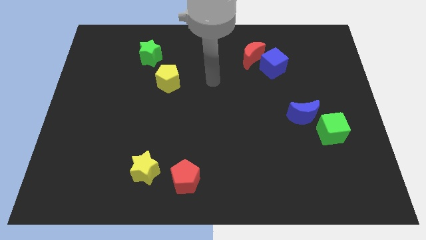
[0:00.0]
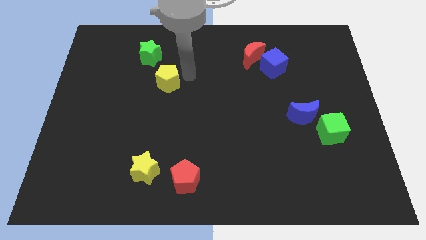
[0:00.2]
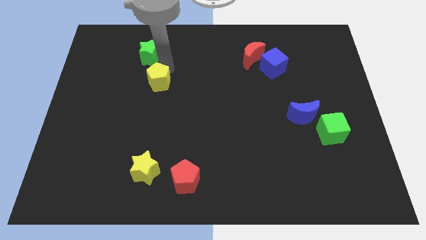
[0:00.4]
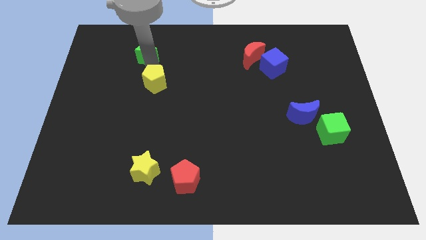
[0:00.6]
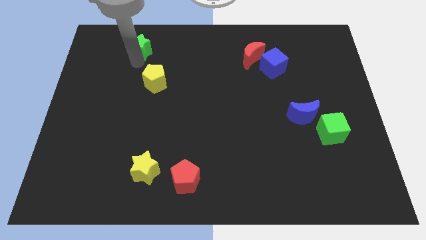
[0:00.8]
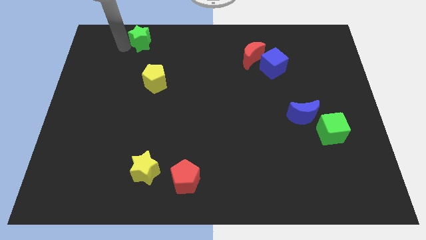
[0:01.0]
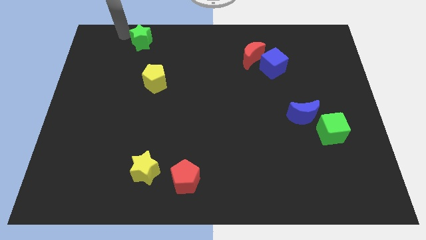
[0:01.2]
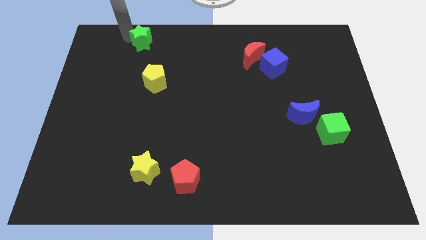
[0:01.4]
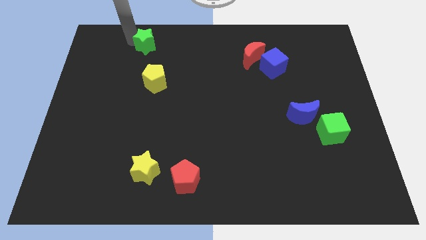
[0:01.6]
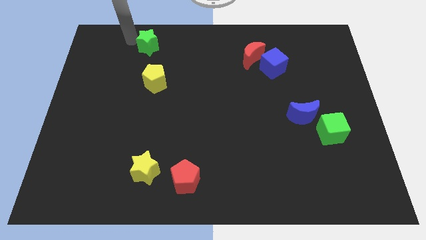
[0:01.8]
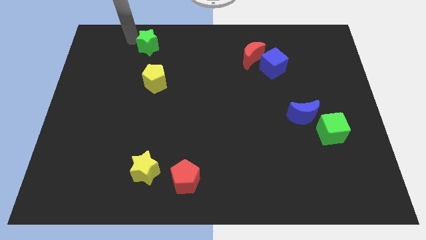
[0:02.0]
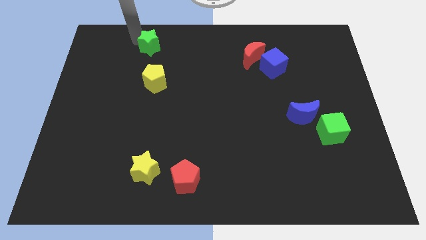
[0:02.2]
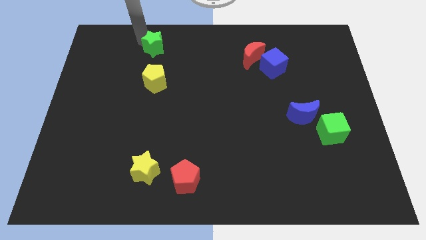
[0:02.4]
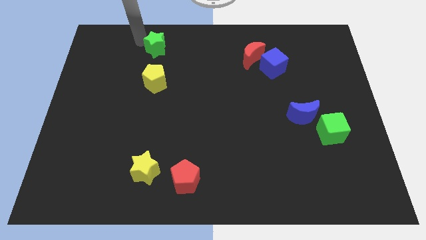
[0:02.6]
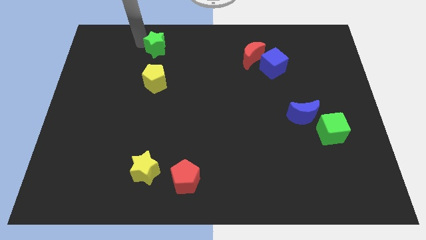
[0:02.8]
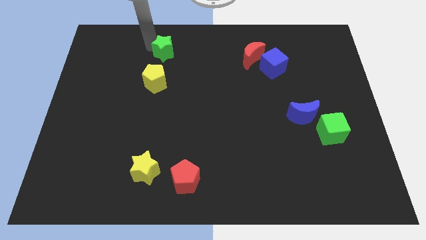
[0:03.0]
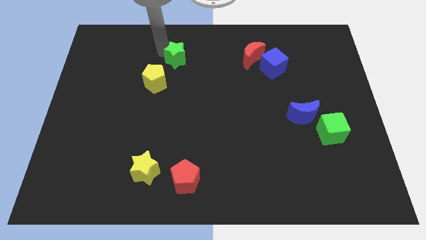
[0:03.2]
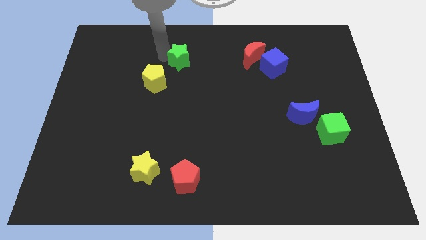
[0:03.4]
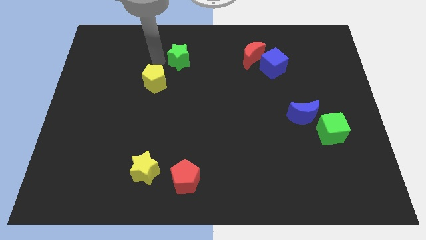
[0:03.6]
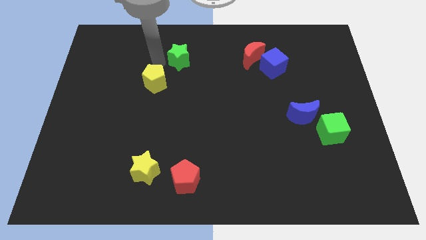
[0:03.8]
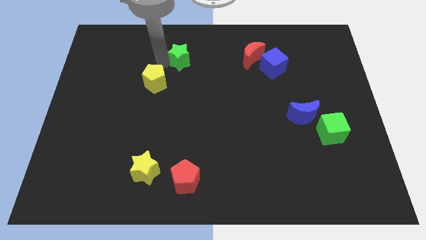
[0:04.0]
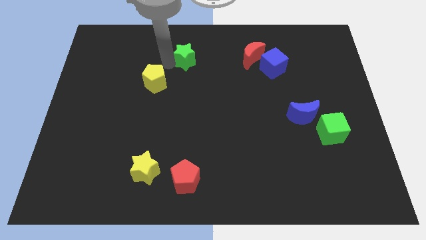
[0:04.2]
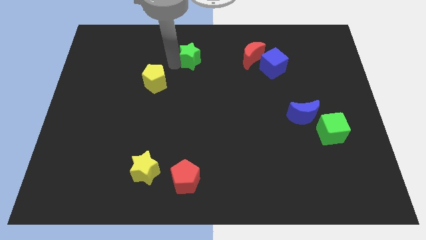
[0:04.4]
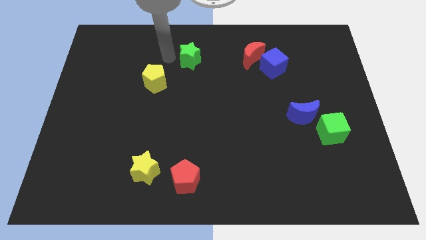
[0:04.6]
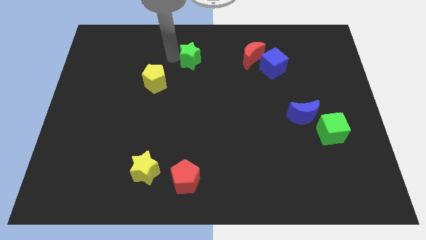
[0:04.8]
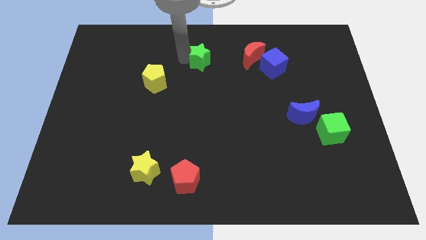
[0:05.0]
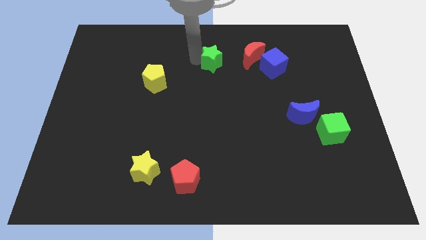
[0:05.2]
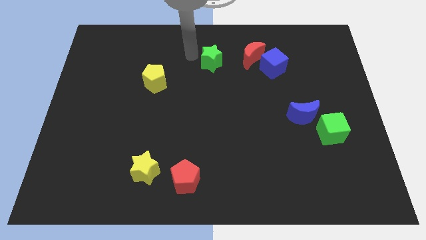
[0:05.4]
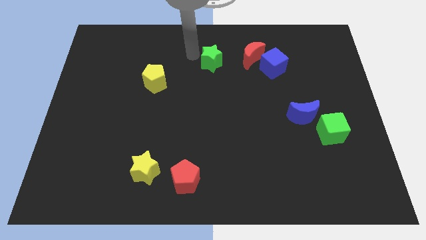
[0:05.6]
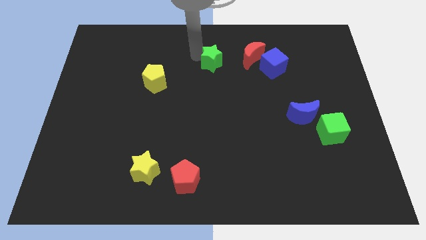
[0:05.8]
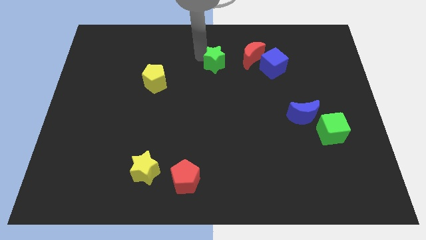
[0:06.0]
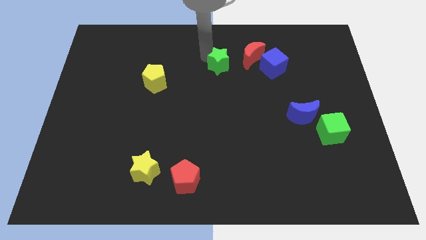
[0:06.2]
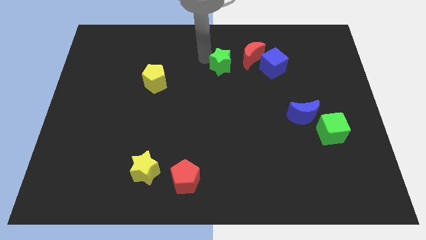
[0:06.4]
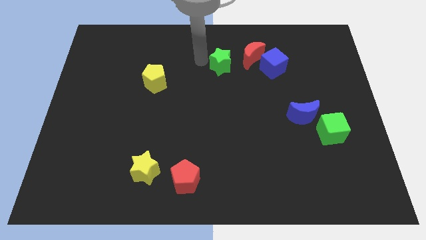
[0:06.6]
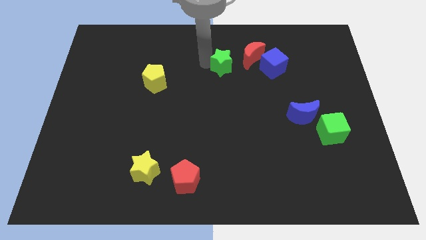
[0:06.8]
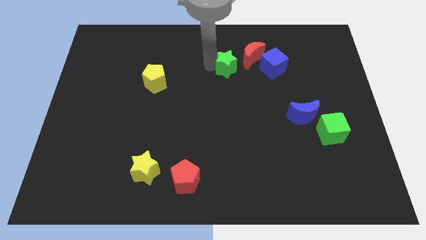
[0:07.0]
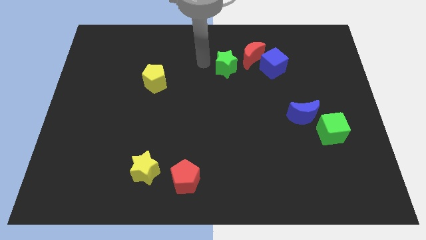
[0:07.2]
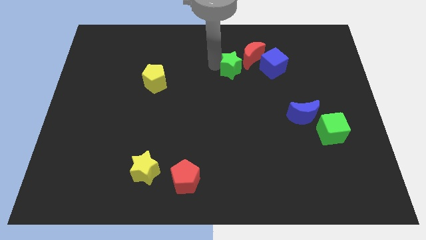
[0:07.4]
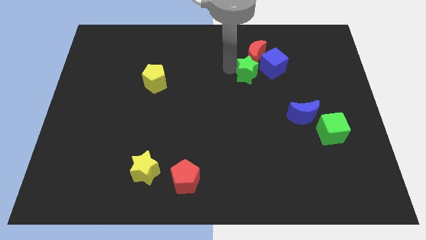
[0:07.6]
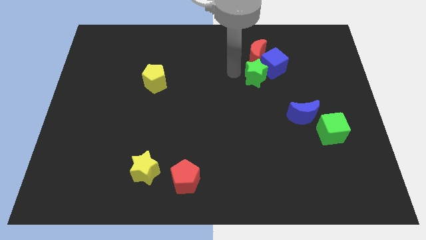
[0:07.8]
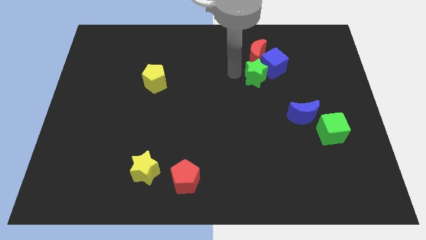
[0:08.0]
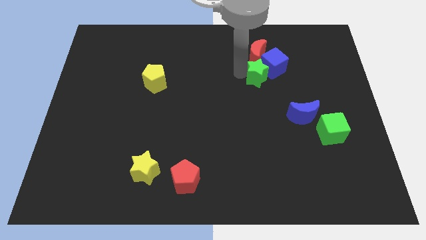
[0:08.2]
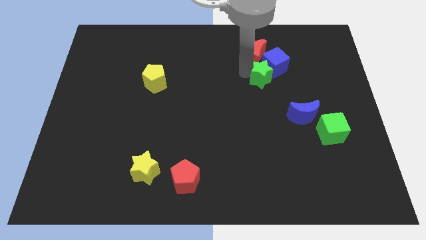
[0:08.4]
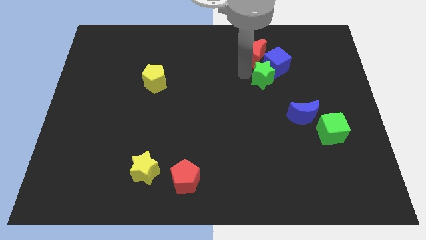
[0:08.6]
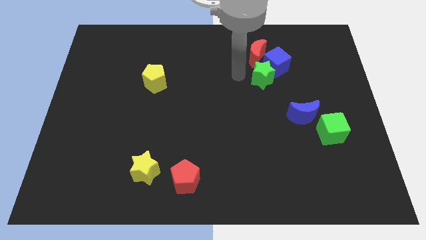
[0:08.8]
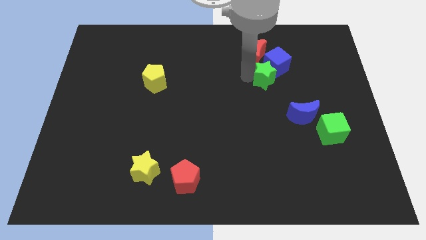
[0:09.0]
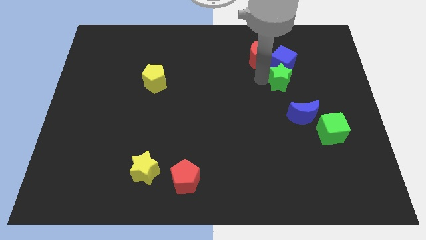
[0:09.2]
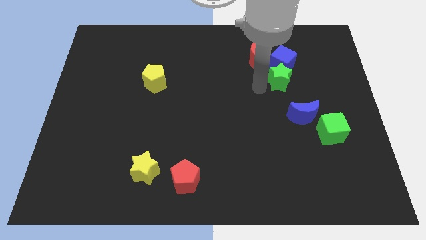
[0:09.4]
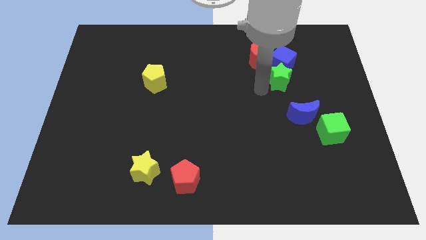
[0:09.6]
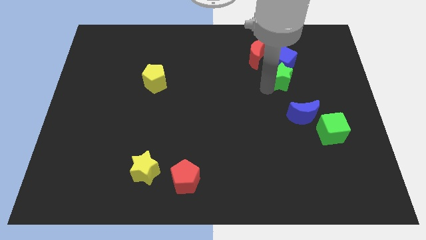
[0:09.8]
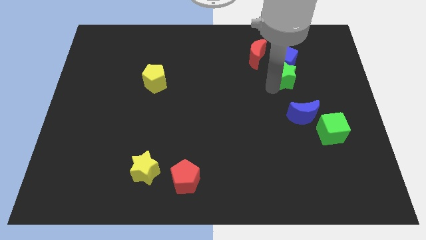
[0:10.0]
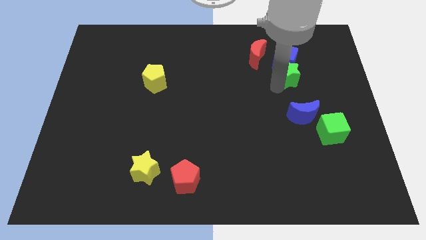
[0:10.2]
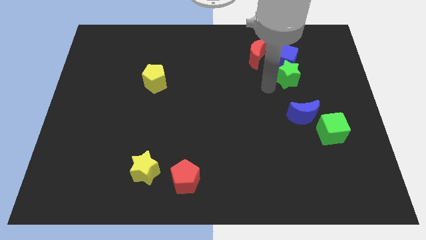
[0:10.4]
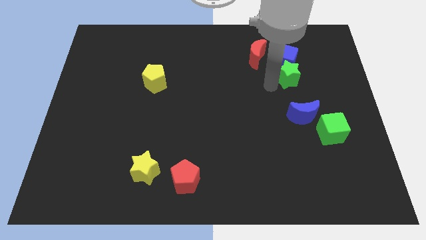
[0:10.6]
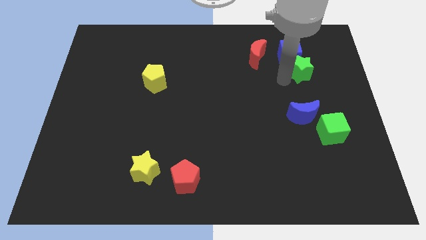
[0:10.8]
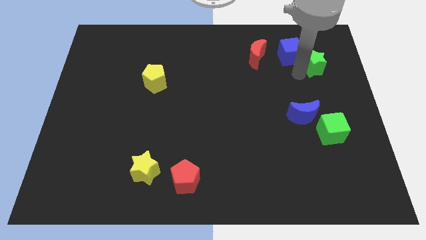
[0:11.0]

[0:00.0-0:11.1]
push the green star just right of the blue cube

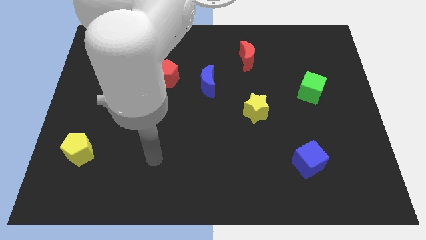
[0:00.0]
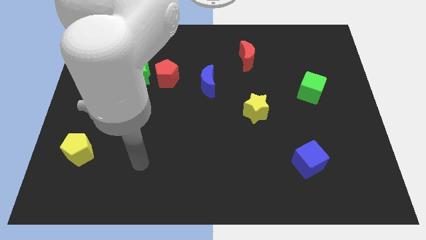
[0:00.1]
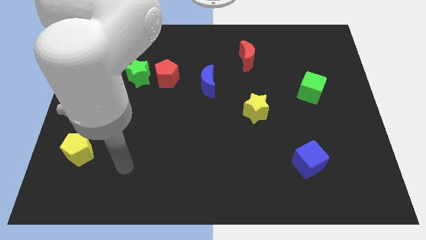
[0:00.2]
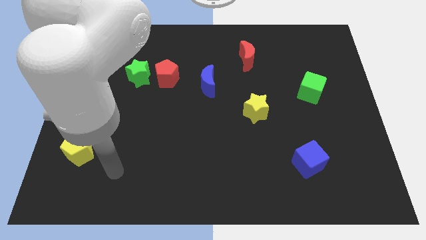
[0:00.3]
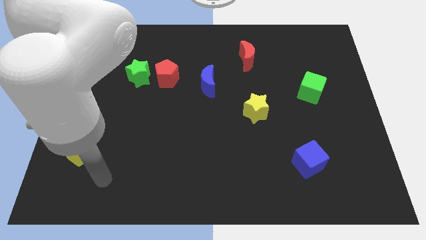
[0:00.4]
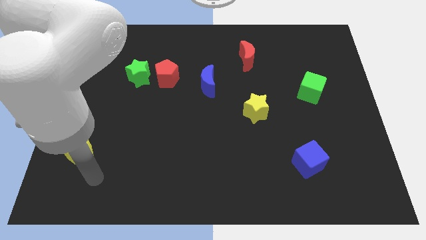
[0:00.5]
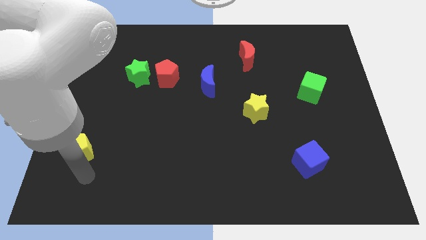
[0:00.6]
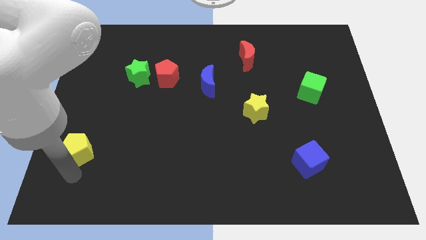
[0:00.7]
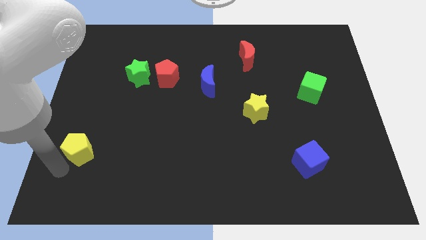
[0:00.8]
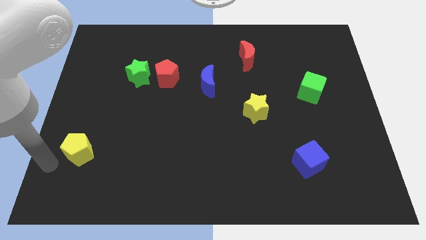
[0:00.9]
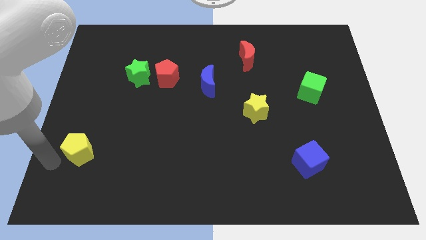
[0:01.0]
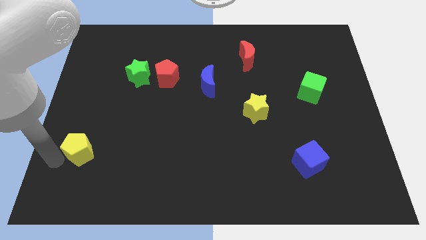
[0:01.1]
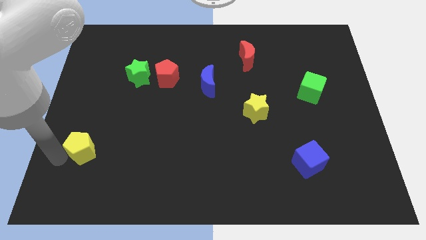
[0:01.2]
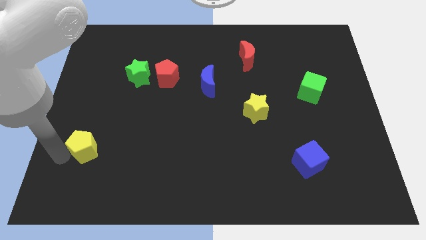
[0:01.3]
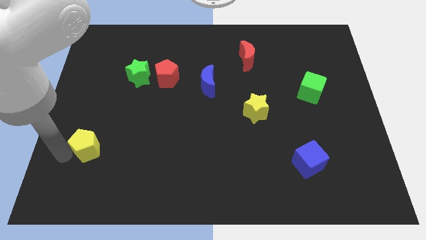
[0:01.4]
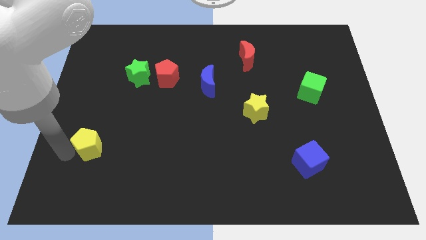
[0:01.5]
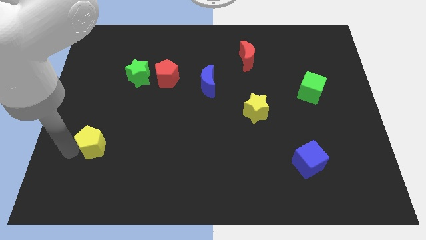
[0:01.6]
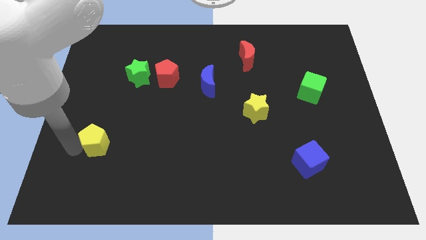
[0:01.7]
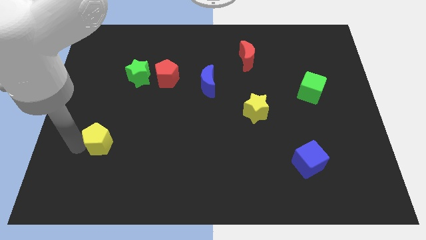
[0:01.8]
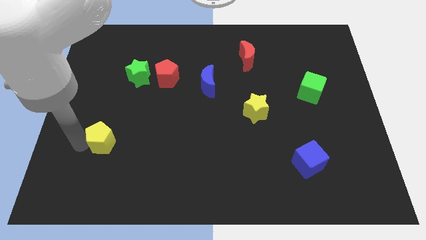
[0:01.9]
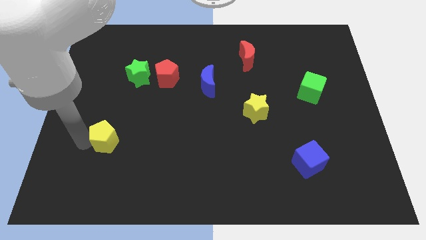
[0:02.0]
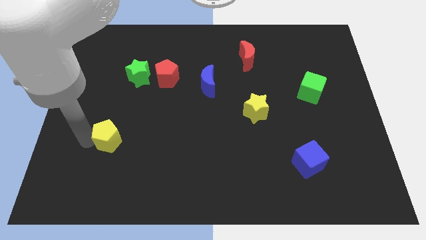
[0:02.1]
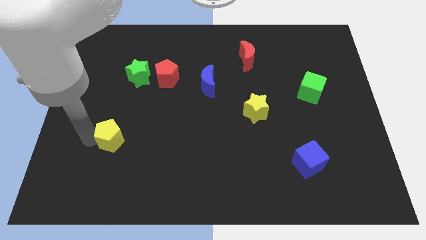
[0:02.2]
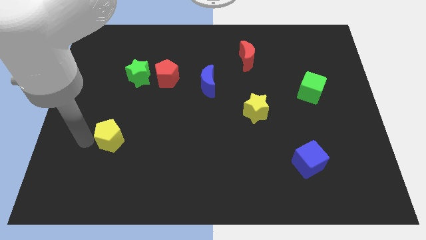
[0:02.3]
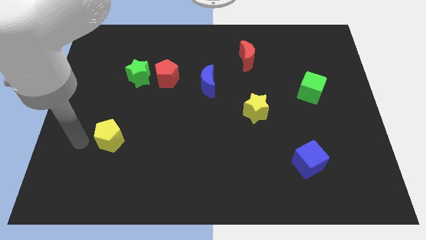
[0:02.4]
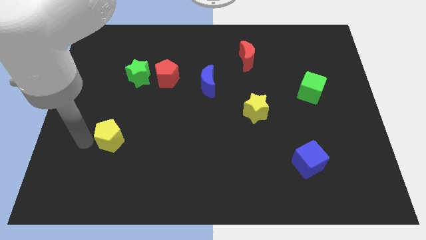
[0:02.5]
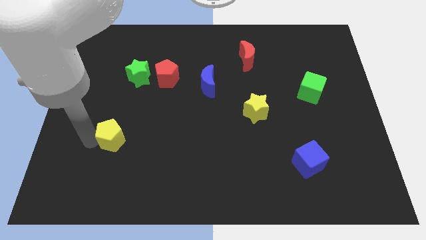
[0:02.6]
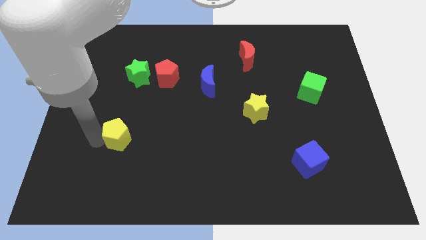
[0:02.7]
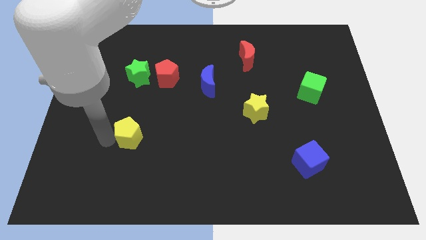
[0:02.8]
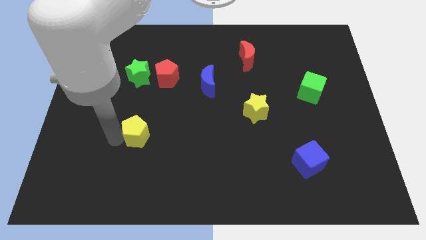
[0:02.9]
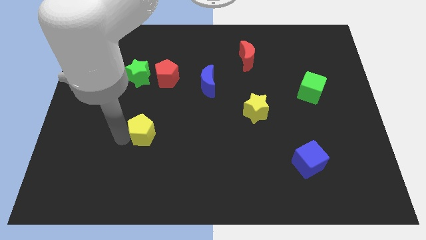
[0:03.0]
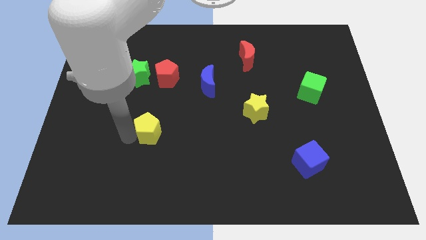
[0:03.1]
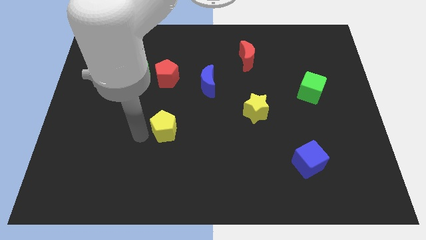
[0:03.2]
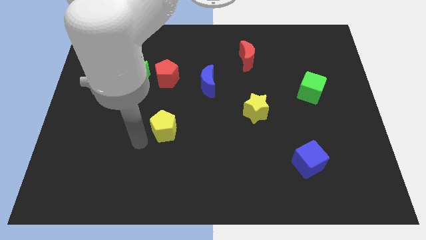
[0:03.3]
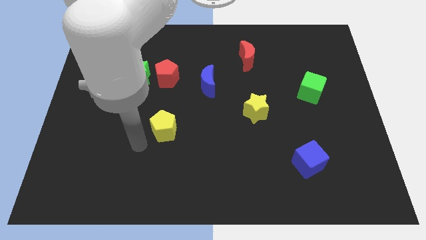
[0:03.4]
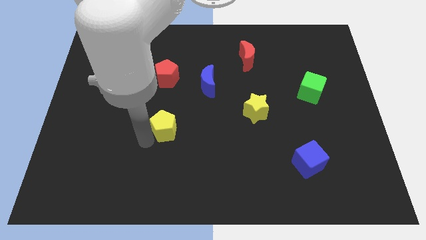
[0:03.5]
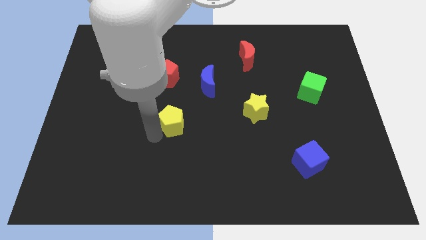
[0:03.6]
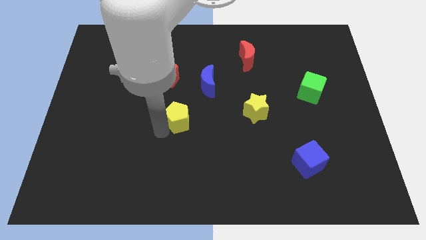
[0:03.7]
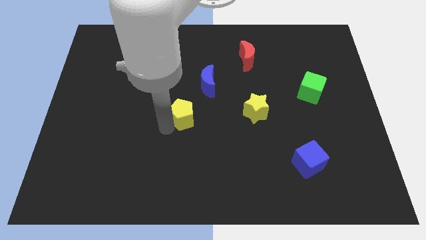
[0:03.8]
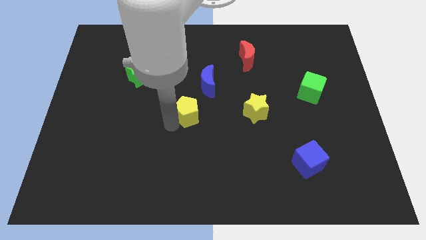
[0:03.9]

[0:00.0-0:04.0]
push the yellow pentagon left of the yellow star
